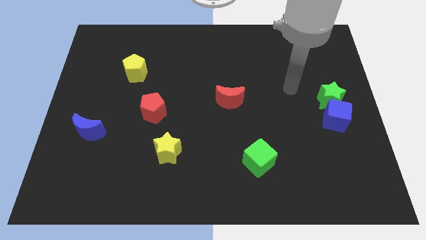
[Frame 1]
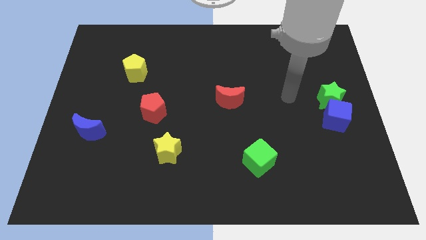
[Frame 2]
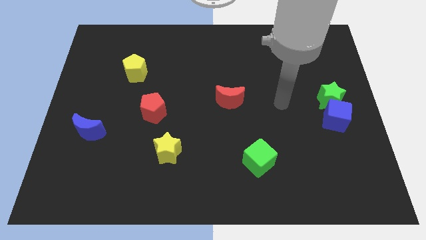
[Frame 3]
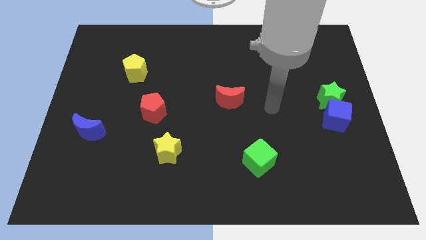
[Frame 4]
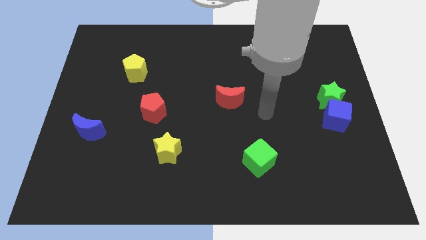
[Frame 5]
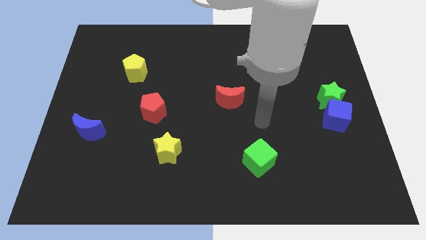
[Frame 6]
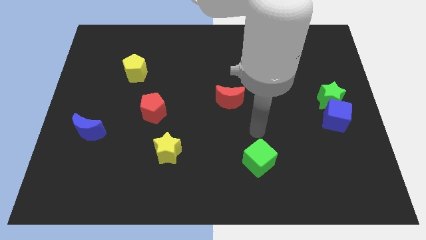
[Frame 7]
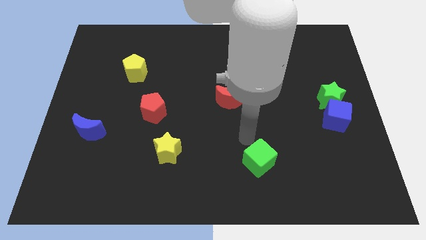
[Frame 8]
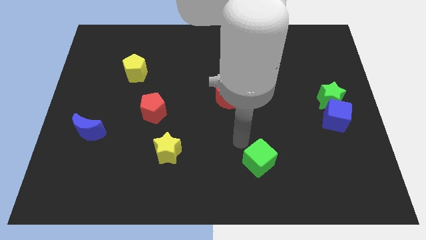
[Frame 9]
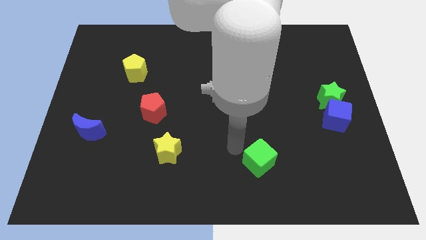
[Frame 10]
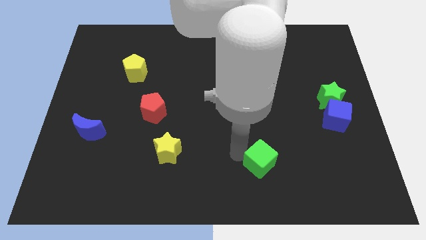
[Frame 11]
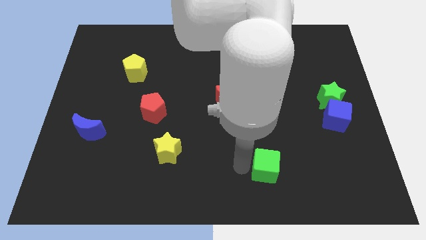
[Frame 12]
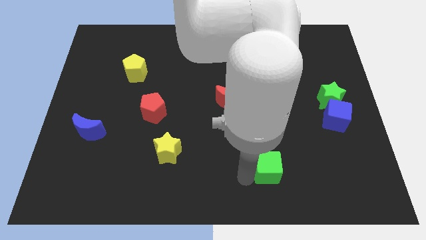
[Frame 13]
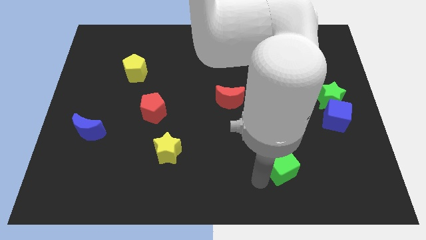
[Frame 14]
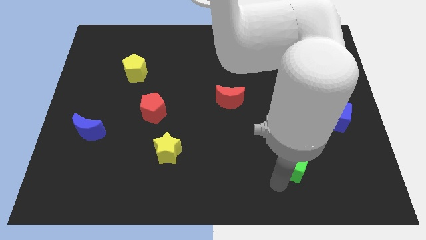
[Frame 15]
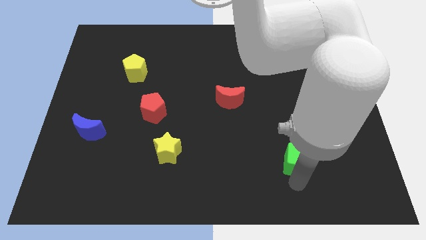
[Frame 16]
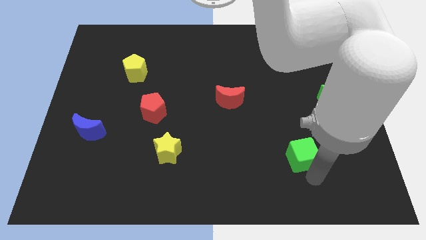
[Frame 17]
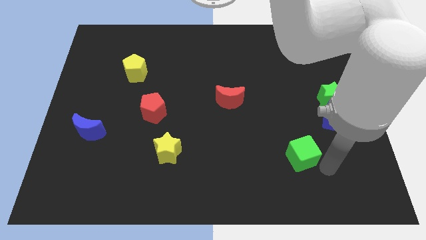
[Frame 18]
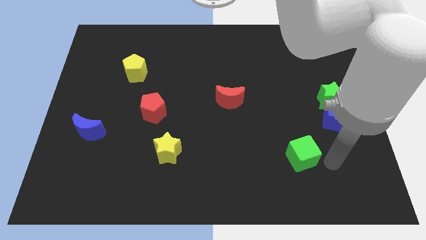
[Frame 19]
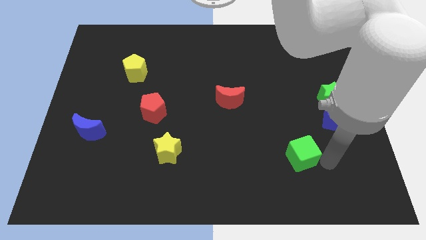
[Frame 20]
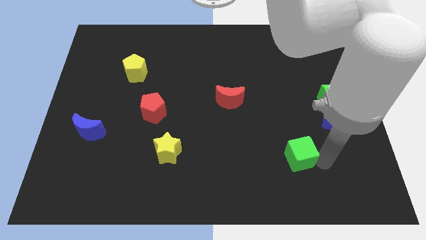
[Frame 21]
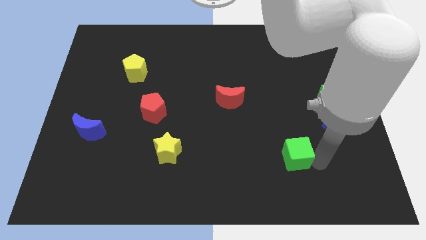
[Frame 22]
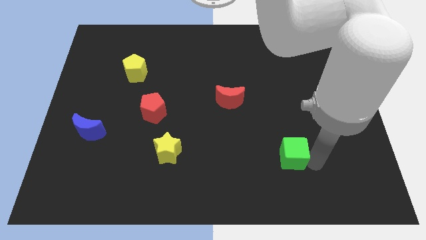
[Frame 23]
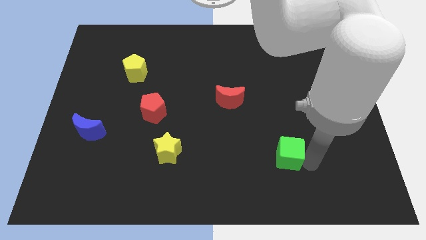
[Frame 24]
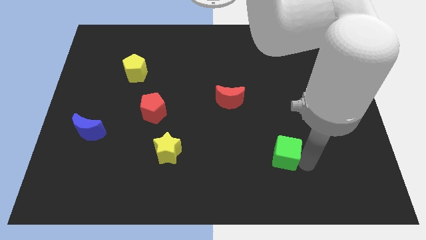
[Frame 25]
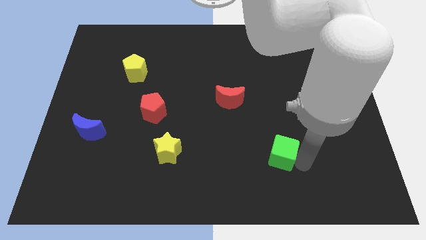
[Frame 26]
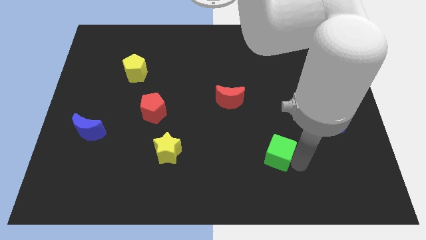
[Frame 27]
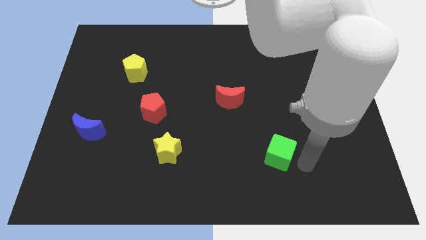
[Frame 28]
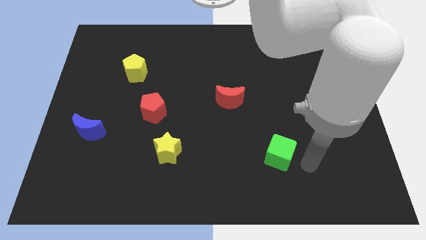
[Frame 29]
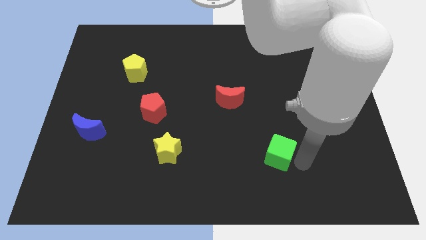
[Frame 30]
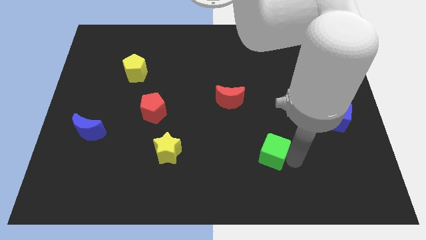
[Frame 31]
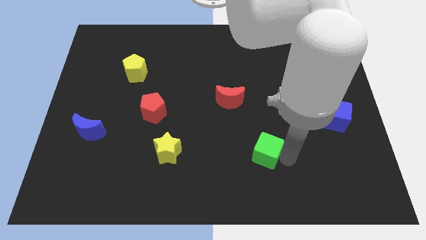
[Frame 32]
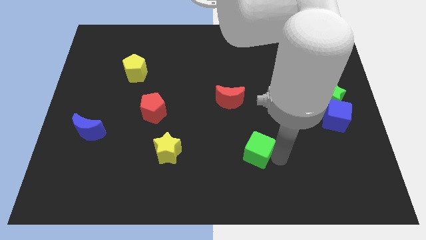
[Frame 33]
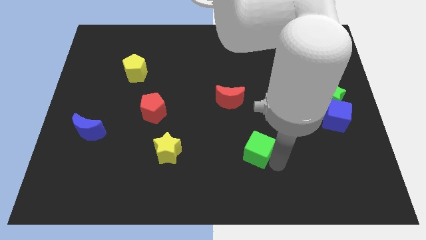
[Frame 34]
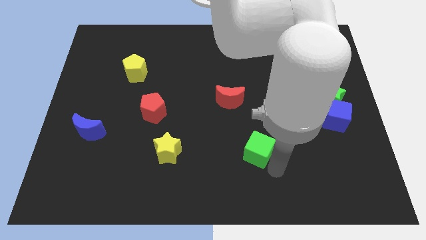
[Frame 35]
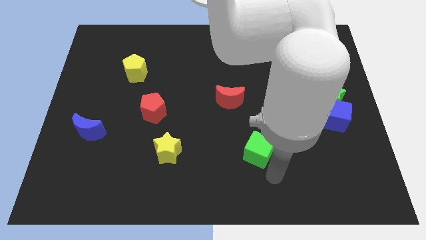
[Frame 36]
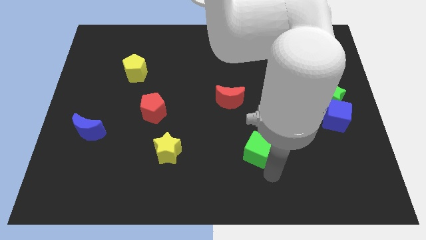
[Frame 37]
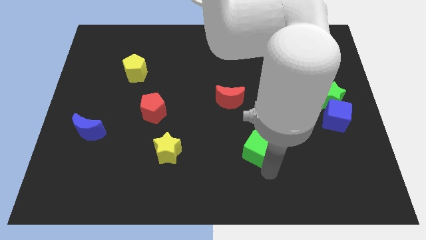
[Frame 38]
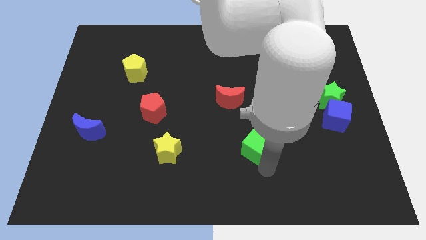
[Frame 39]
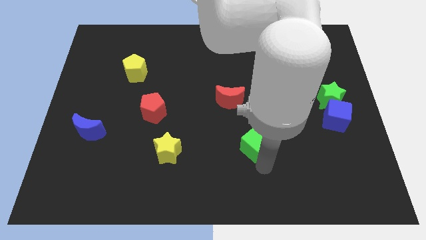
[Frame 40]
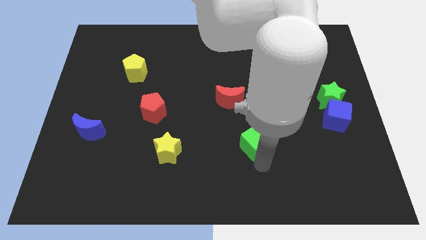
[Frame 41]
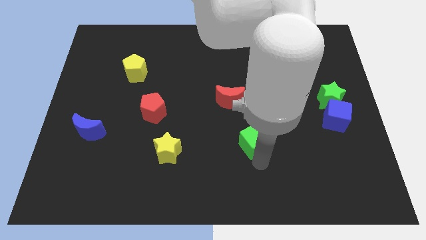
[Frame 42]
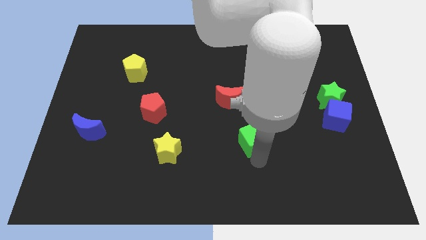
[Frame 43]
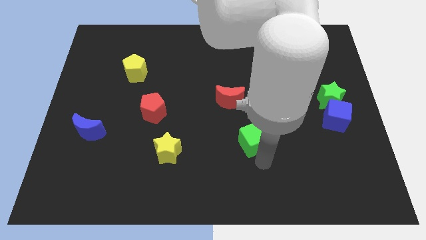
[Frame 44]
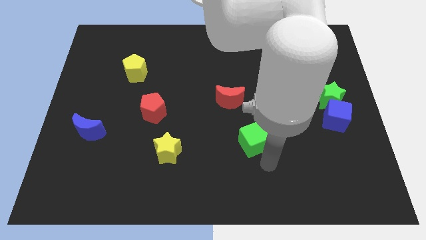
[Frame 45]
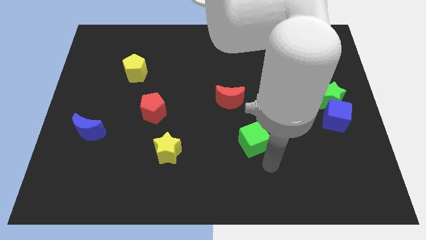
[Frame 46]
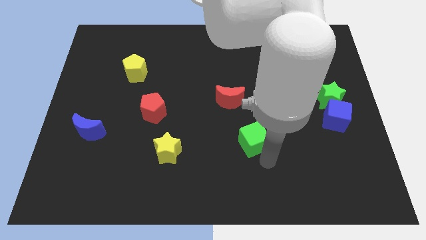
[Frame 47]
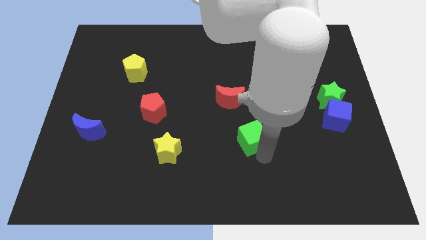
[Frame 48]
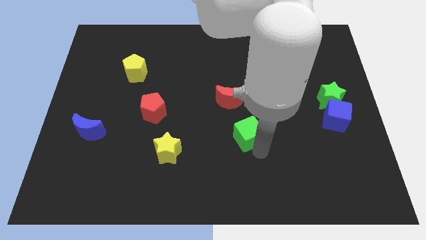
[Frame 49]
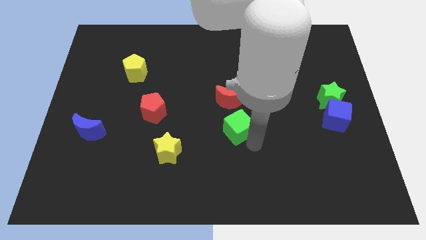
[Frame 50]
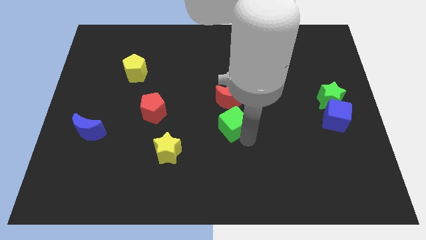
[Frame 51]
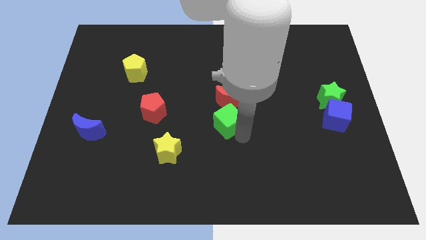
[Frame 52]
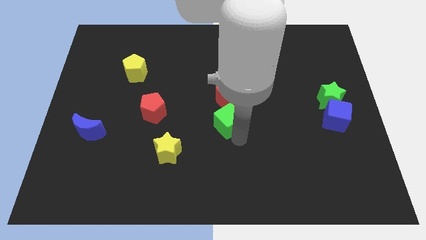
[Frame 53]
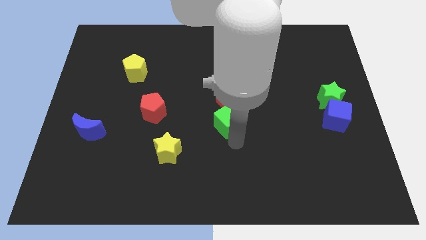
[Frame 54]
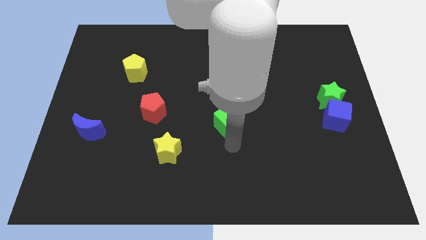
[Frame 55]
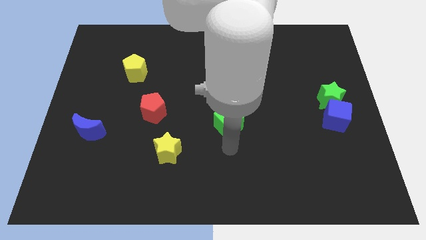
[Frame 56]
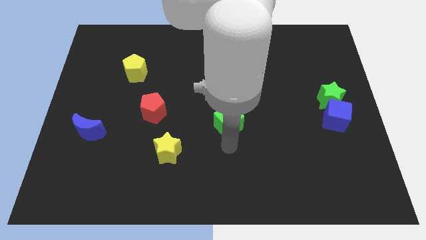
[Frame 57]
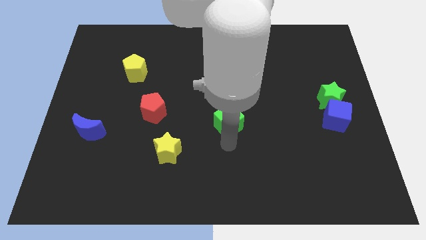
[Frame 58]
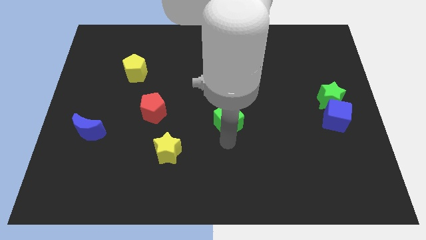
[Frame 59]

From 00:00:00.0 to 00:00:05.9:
move the green cube close to the red moon

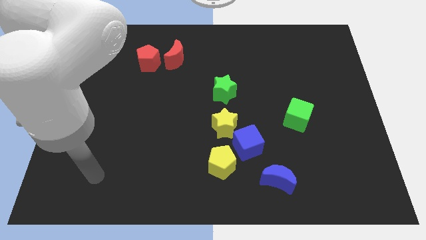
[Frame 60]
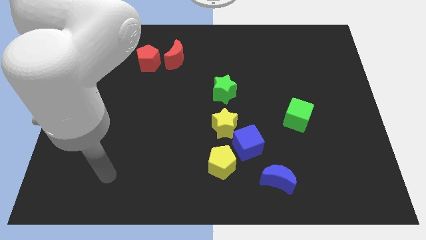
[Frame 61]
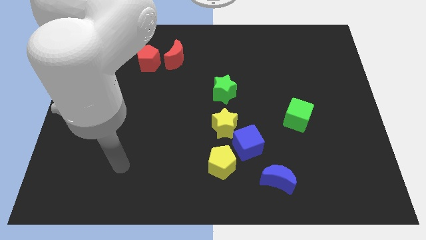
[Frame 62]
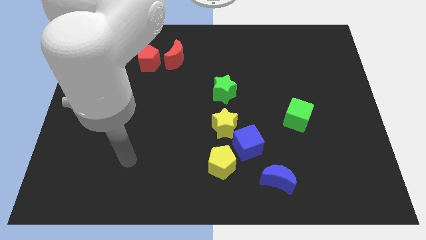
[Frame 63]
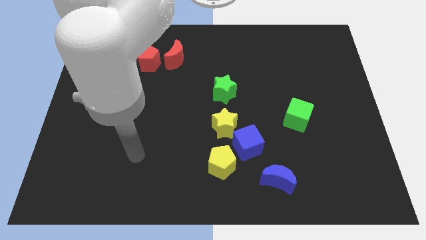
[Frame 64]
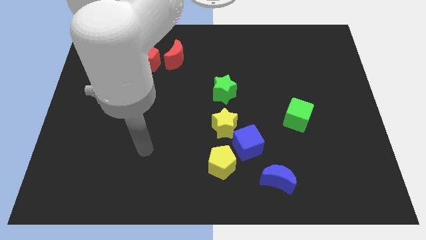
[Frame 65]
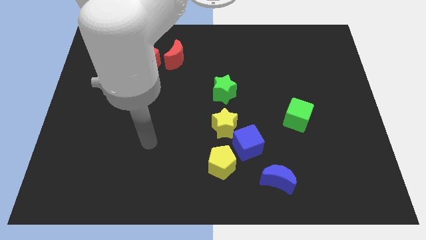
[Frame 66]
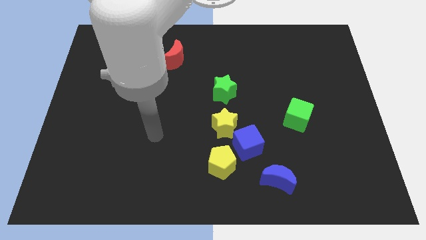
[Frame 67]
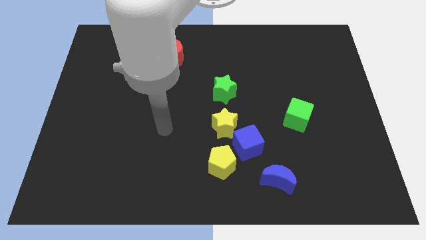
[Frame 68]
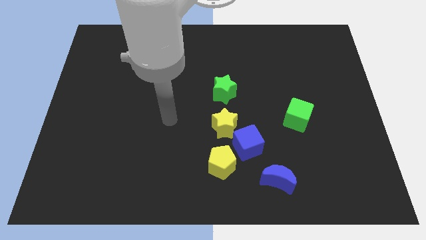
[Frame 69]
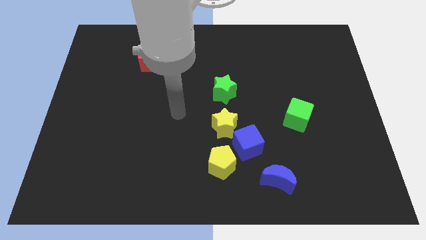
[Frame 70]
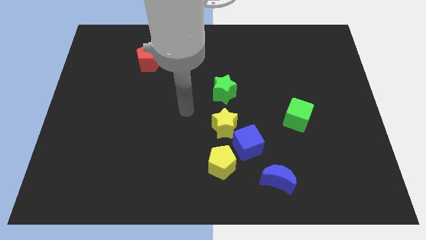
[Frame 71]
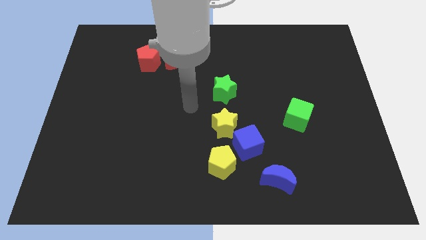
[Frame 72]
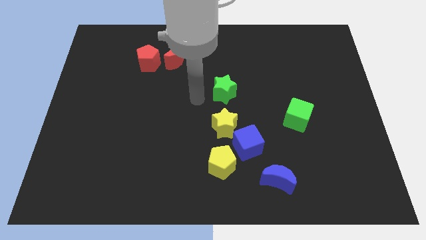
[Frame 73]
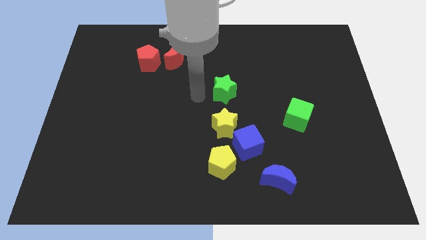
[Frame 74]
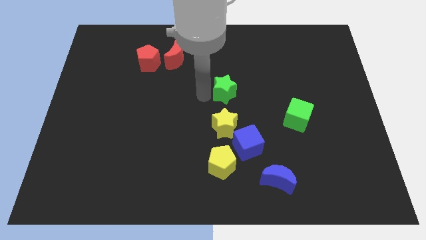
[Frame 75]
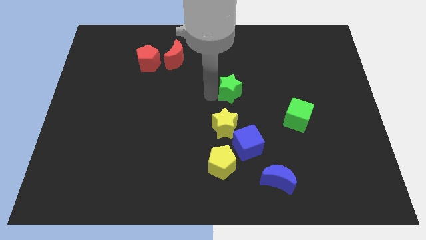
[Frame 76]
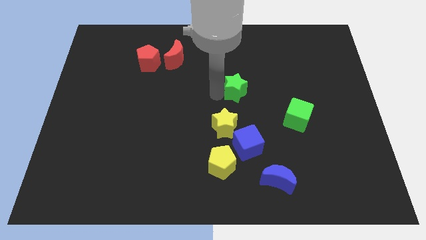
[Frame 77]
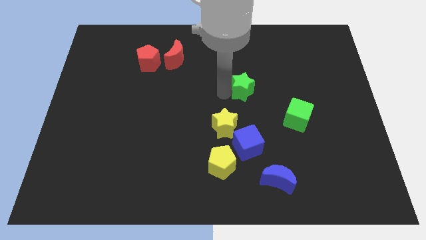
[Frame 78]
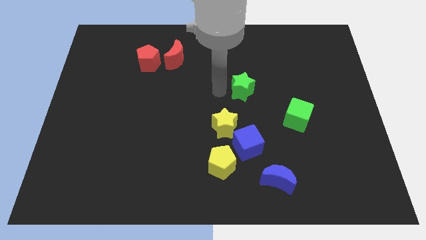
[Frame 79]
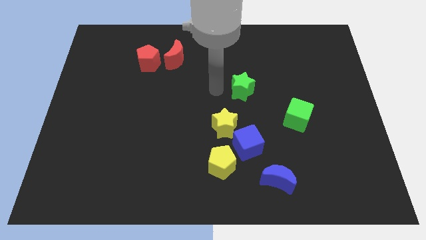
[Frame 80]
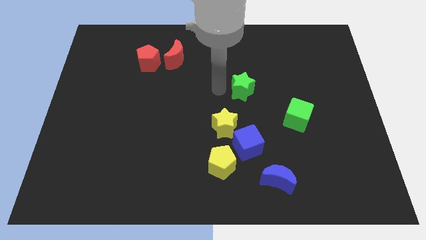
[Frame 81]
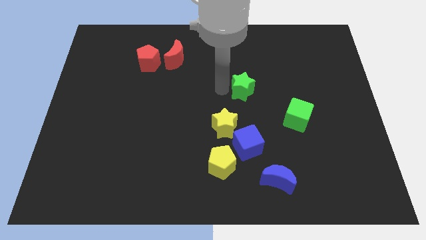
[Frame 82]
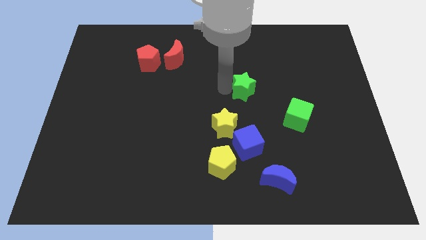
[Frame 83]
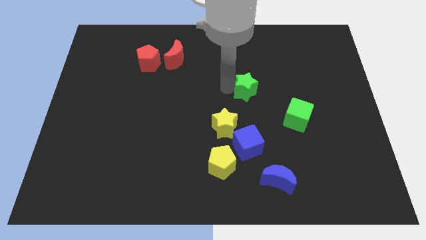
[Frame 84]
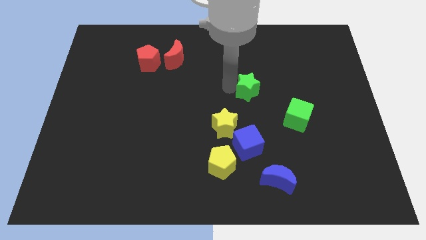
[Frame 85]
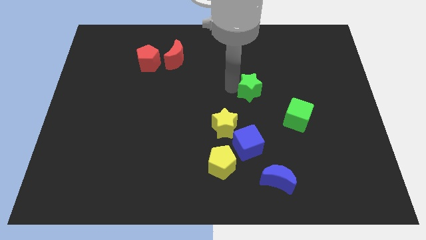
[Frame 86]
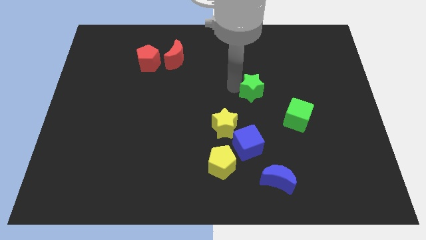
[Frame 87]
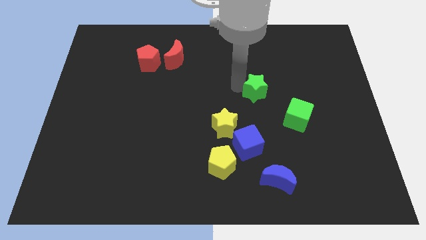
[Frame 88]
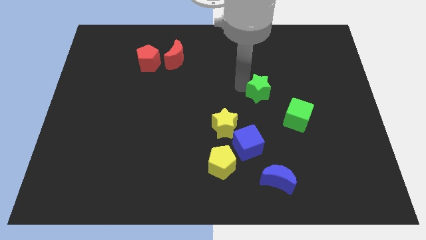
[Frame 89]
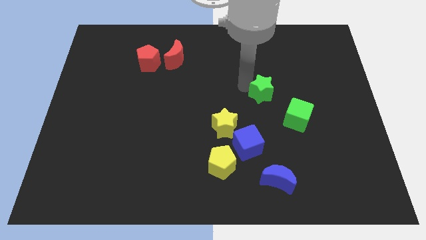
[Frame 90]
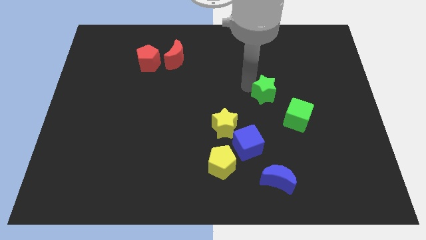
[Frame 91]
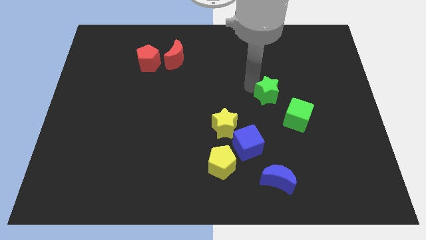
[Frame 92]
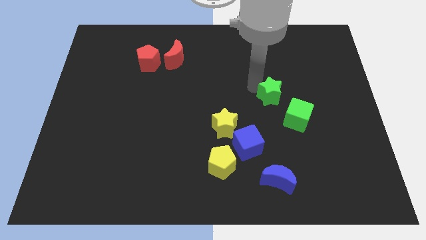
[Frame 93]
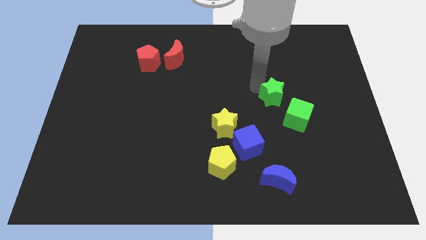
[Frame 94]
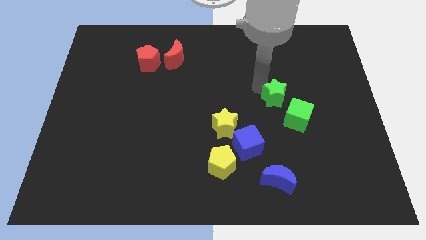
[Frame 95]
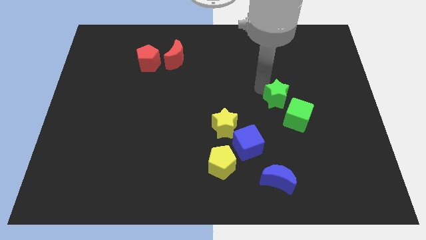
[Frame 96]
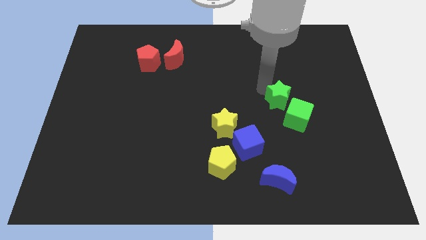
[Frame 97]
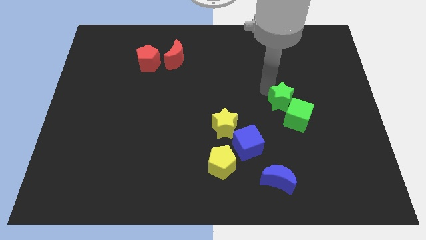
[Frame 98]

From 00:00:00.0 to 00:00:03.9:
slide the green star close to the green cube
